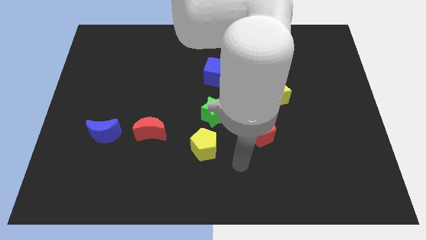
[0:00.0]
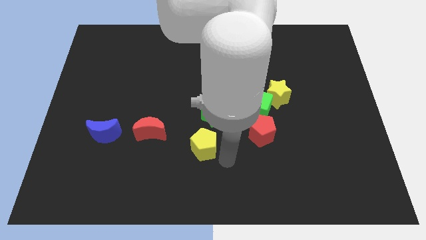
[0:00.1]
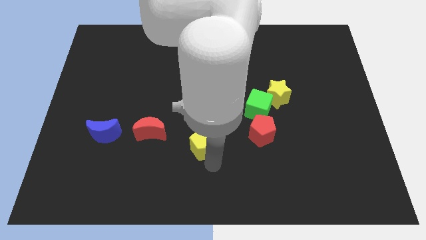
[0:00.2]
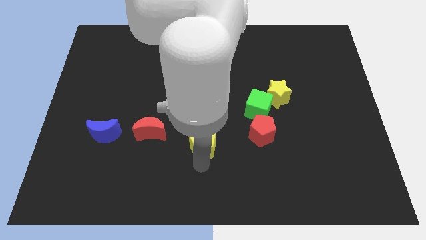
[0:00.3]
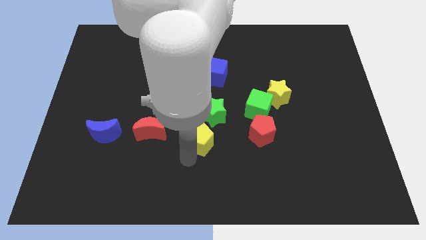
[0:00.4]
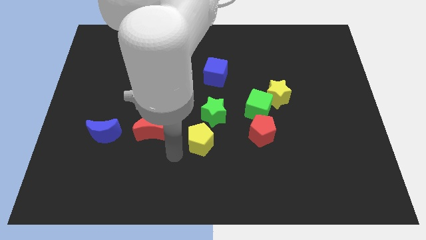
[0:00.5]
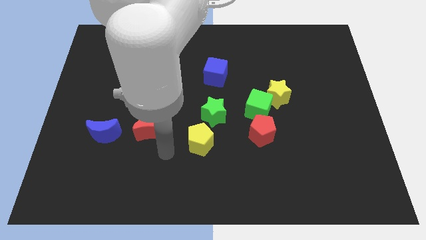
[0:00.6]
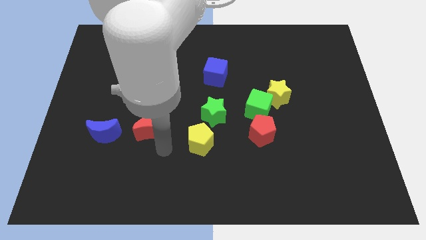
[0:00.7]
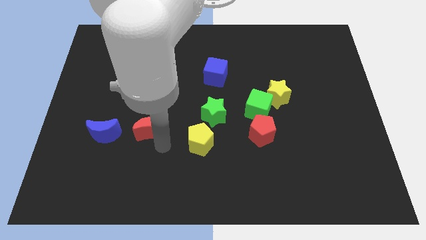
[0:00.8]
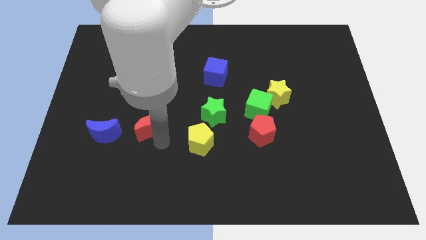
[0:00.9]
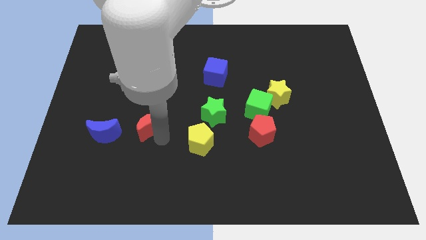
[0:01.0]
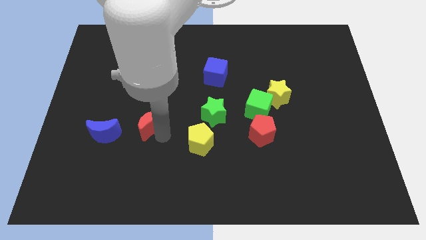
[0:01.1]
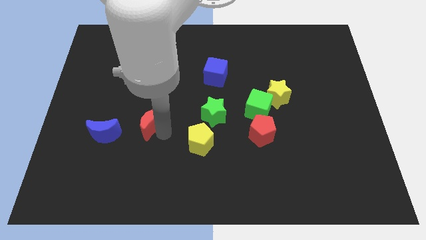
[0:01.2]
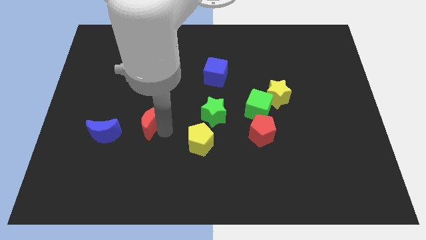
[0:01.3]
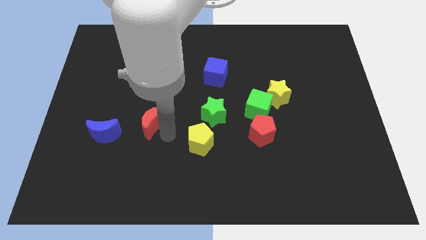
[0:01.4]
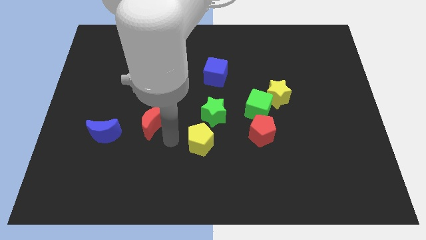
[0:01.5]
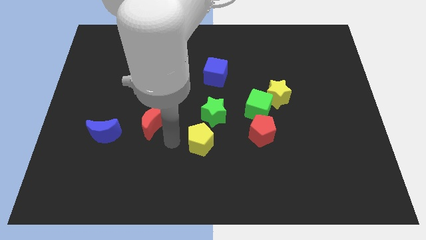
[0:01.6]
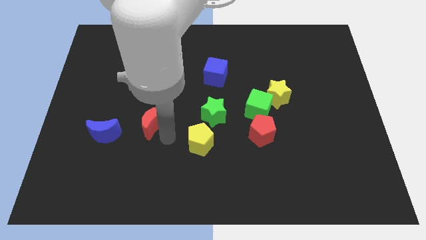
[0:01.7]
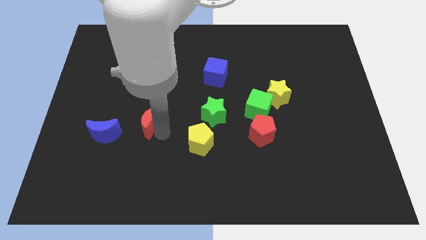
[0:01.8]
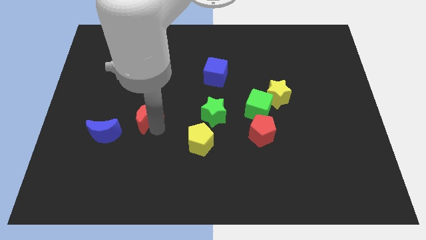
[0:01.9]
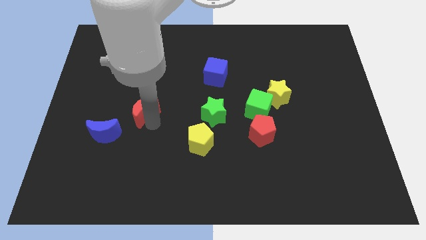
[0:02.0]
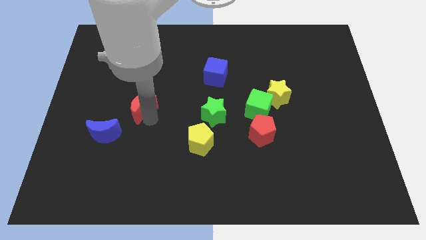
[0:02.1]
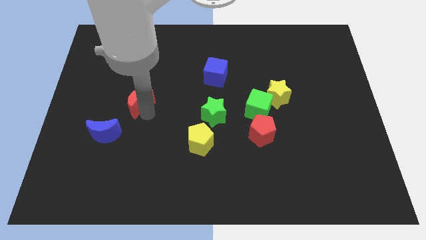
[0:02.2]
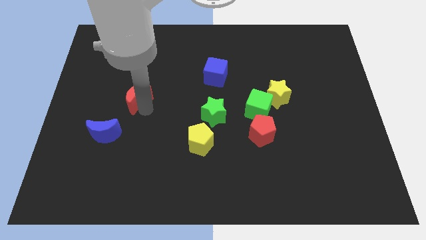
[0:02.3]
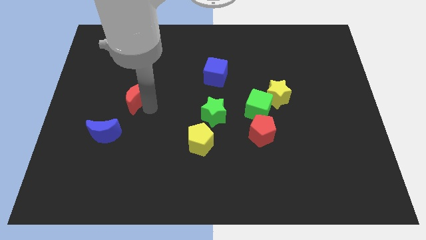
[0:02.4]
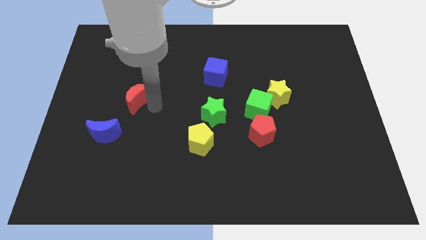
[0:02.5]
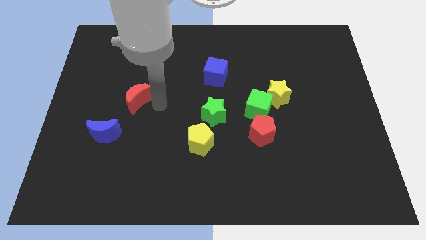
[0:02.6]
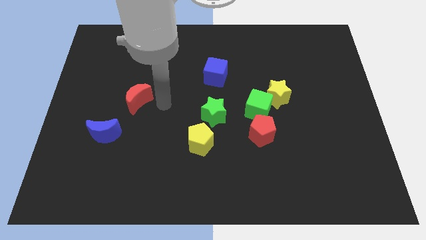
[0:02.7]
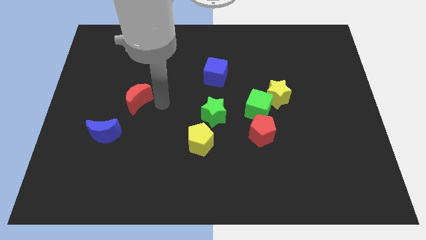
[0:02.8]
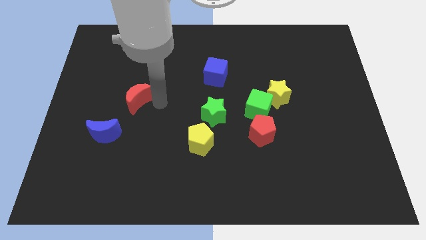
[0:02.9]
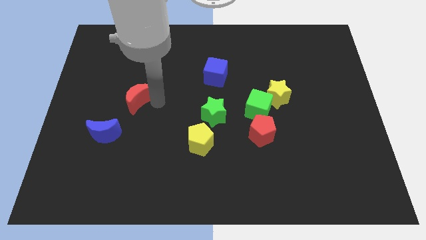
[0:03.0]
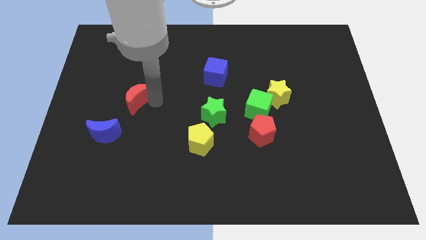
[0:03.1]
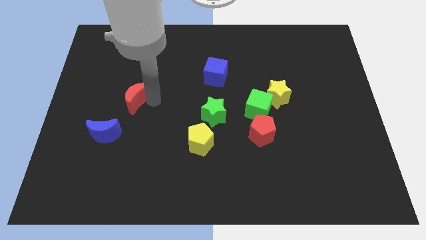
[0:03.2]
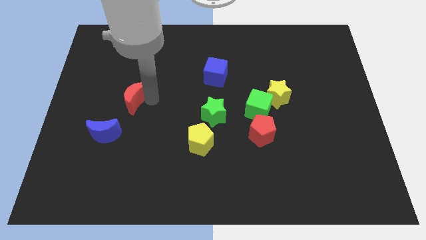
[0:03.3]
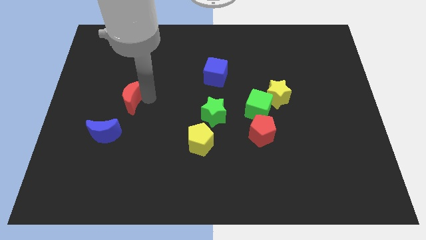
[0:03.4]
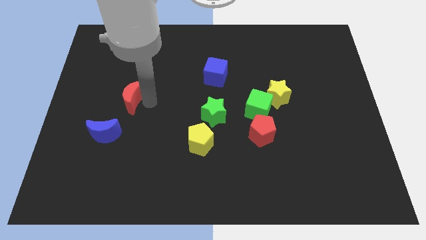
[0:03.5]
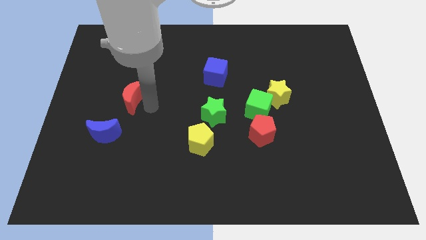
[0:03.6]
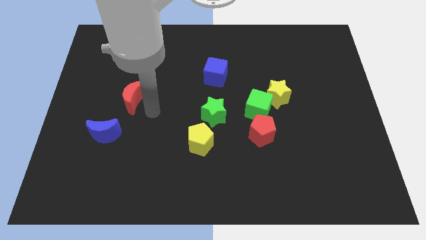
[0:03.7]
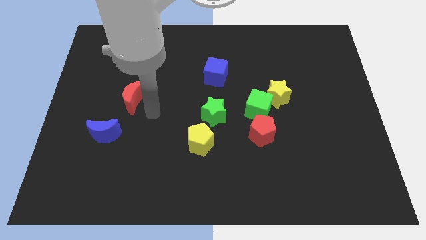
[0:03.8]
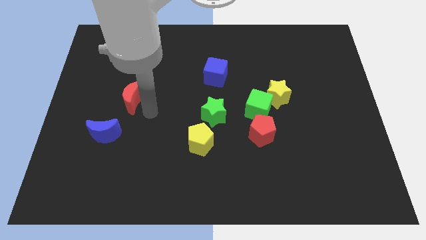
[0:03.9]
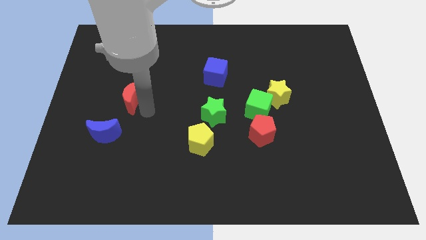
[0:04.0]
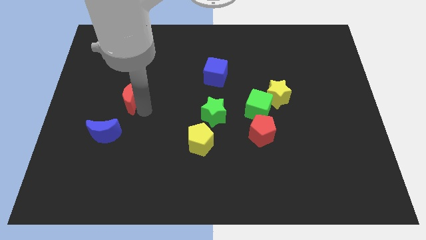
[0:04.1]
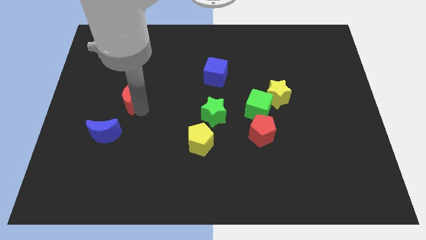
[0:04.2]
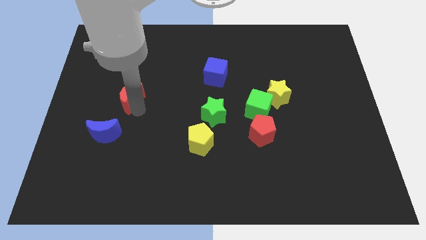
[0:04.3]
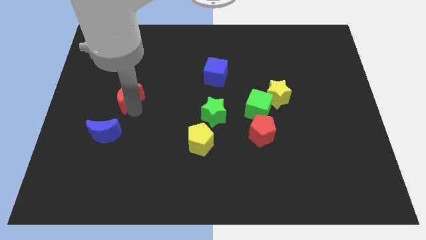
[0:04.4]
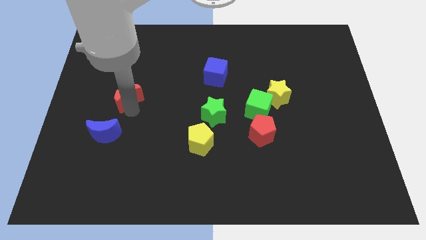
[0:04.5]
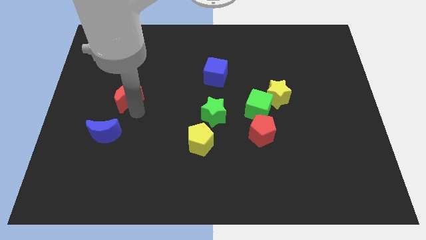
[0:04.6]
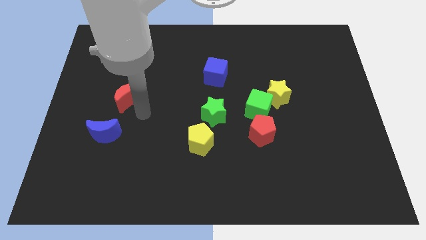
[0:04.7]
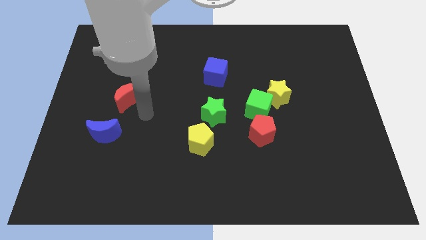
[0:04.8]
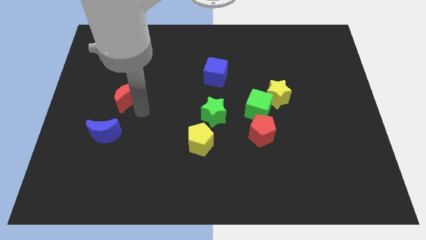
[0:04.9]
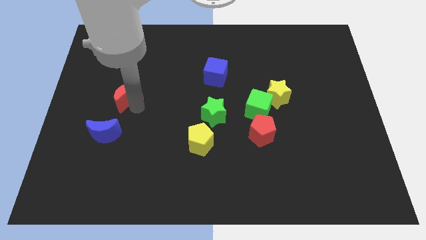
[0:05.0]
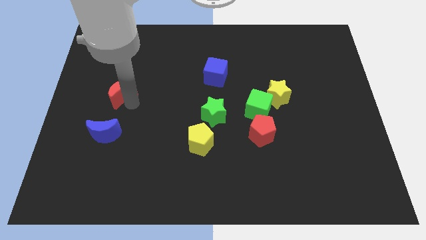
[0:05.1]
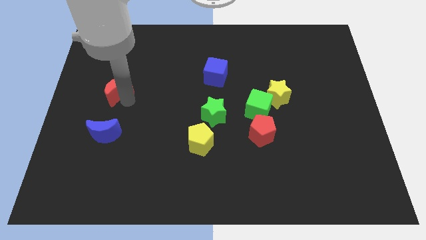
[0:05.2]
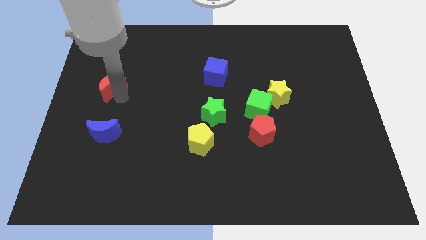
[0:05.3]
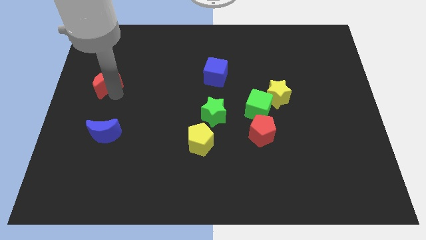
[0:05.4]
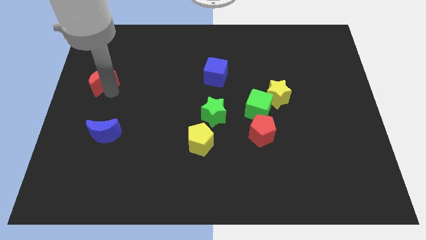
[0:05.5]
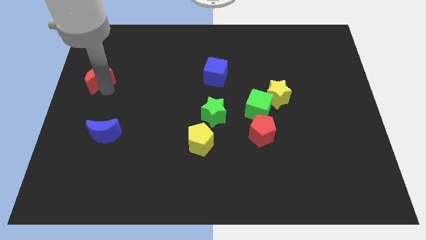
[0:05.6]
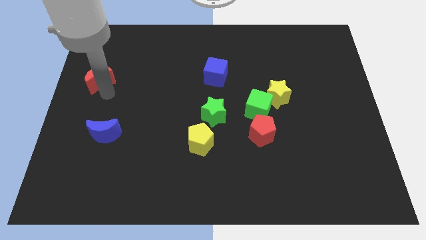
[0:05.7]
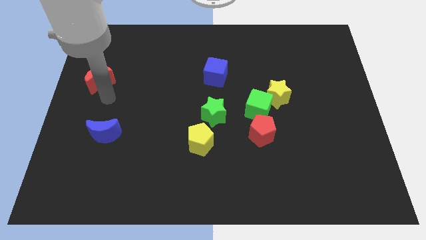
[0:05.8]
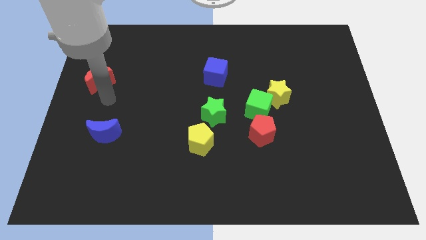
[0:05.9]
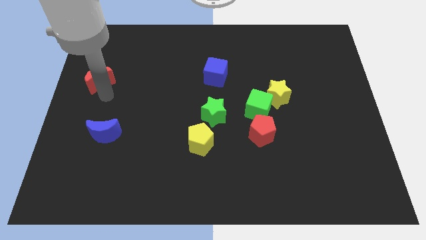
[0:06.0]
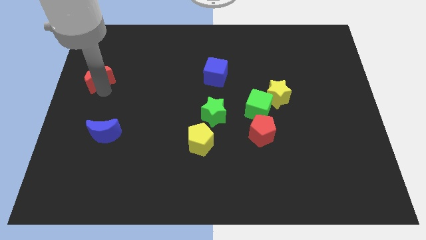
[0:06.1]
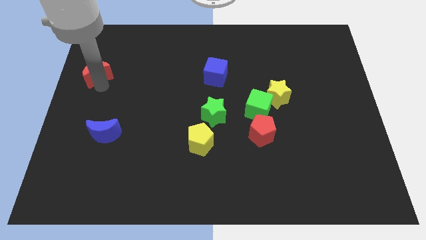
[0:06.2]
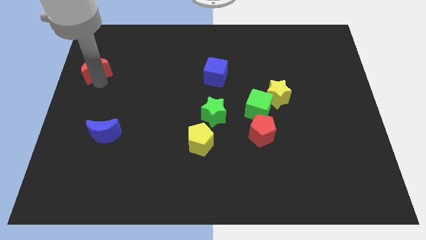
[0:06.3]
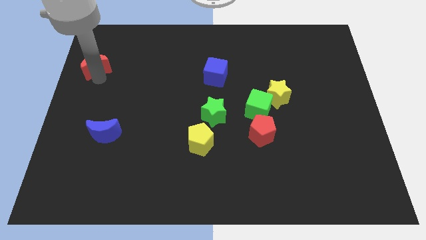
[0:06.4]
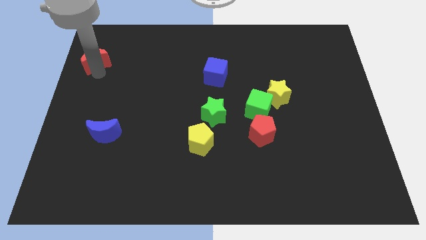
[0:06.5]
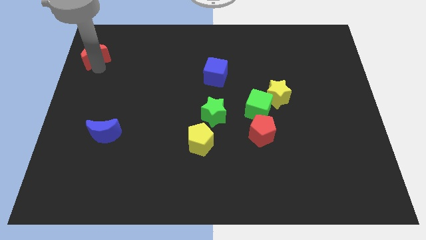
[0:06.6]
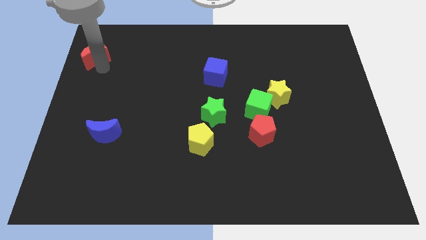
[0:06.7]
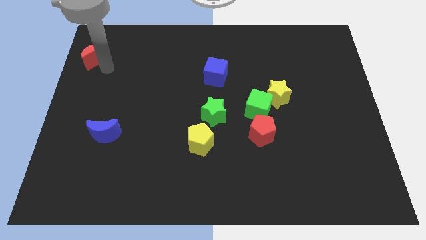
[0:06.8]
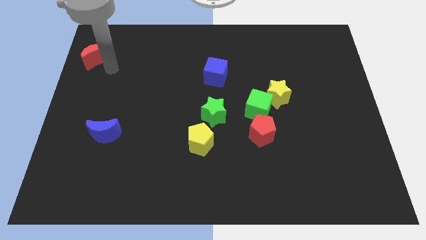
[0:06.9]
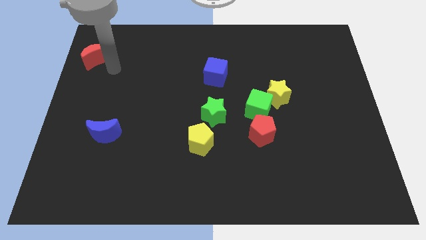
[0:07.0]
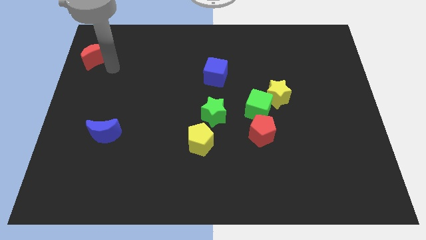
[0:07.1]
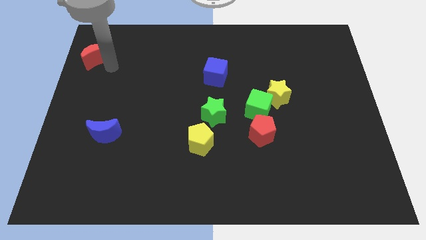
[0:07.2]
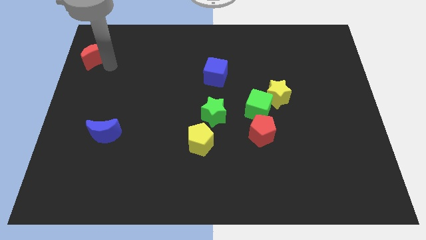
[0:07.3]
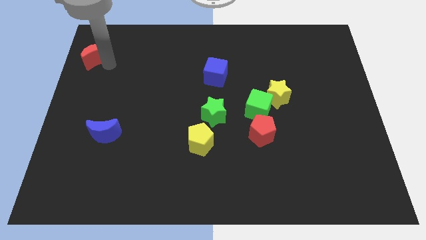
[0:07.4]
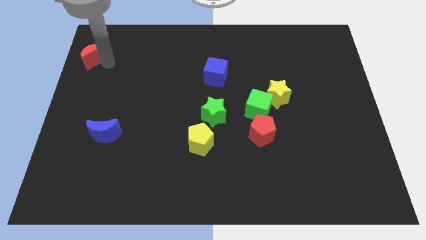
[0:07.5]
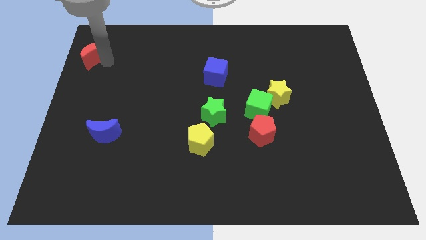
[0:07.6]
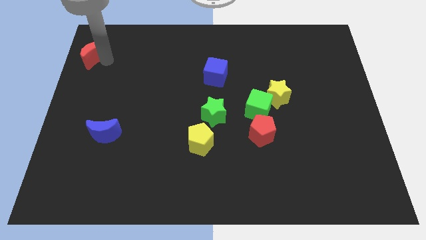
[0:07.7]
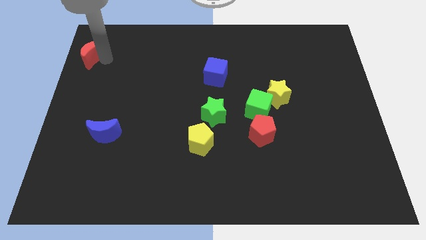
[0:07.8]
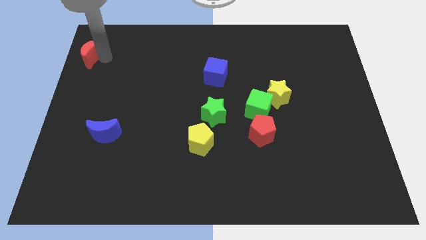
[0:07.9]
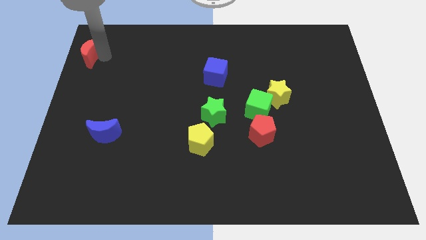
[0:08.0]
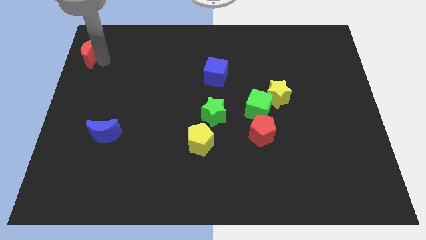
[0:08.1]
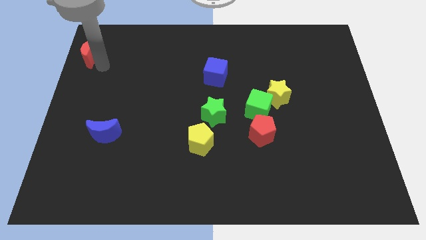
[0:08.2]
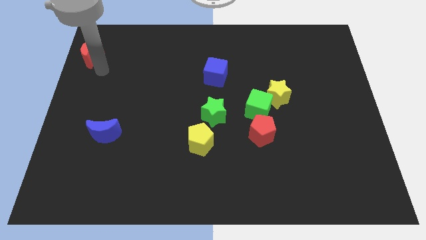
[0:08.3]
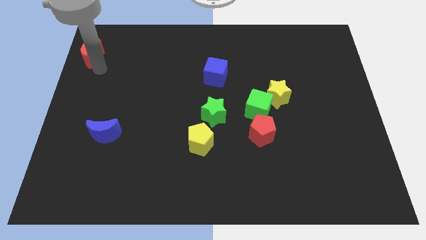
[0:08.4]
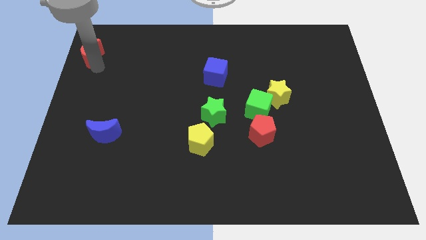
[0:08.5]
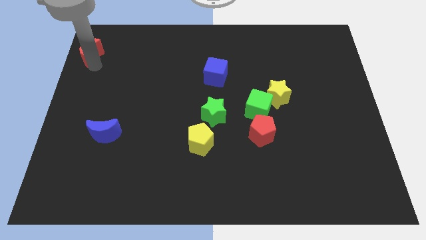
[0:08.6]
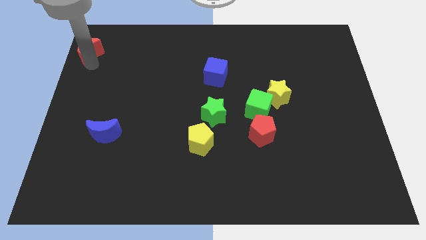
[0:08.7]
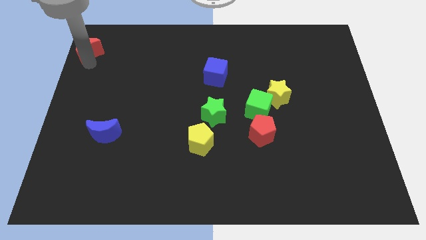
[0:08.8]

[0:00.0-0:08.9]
slide the red moon to the top left
